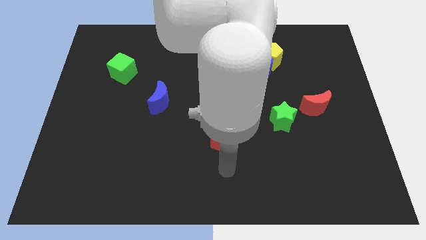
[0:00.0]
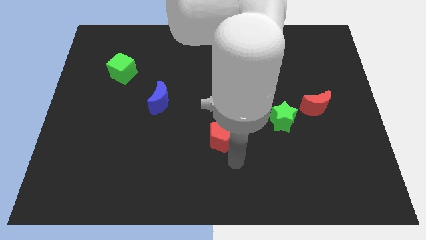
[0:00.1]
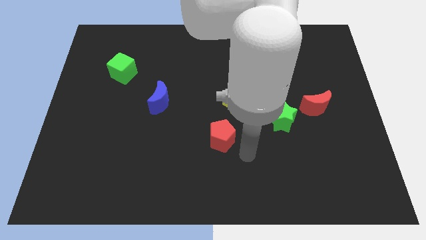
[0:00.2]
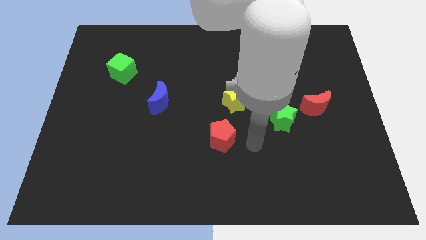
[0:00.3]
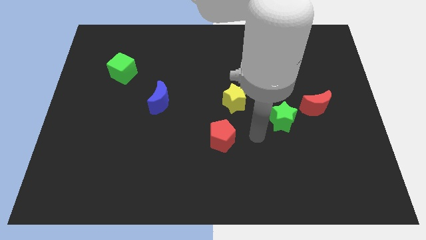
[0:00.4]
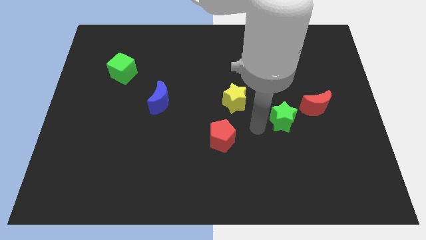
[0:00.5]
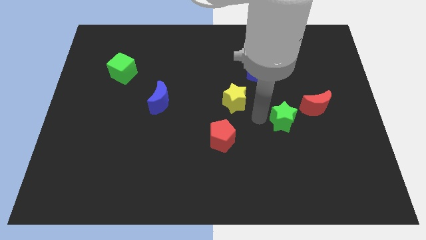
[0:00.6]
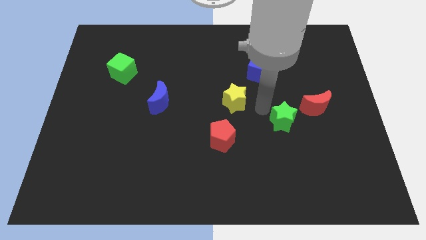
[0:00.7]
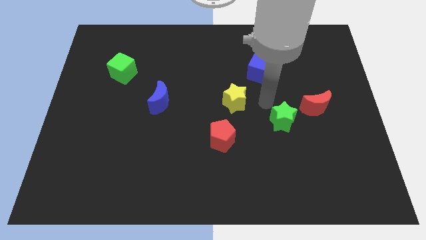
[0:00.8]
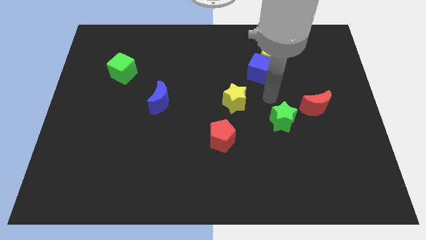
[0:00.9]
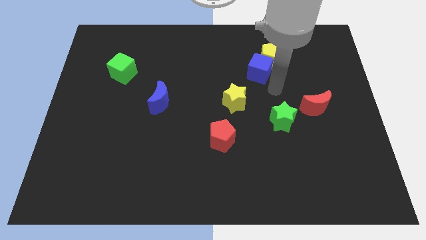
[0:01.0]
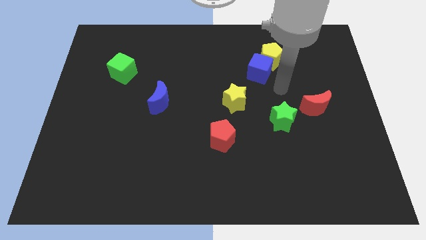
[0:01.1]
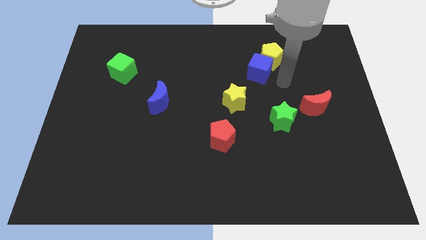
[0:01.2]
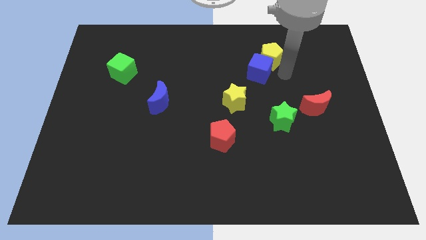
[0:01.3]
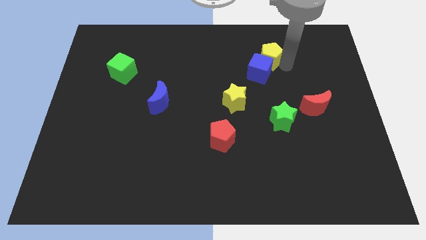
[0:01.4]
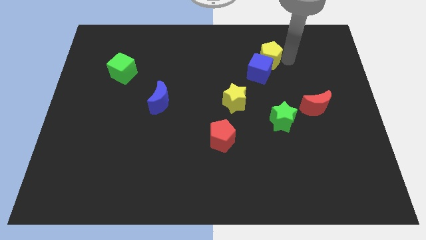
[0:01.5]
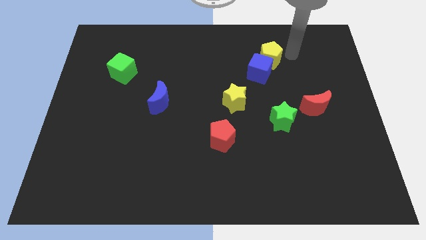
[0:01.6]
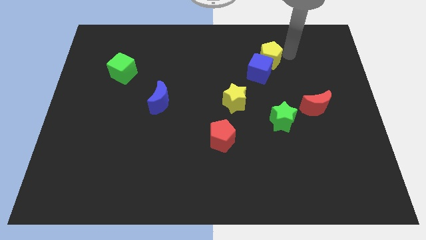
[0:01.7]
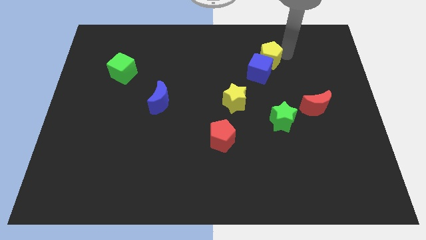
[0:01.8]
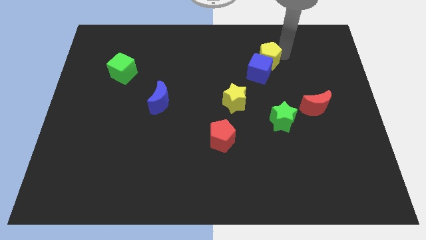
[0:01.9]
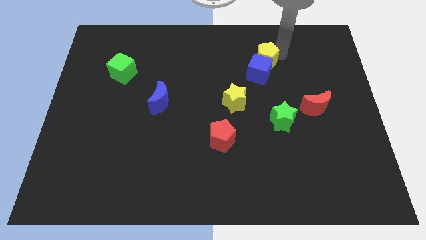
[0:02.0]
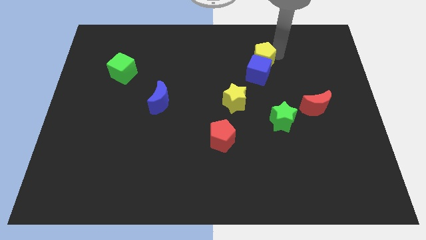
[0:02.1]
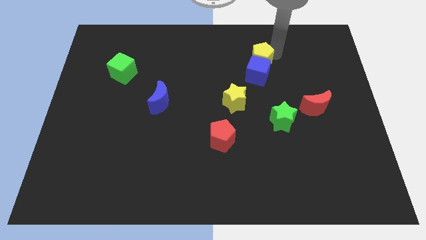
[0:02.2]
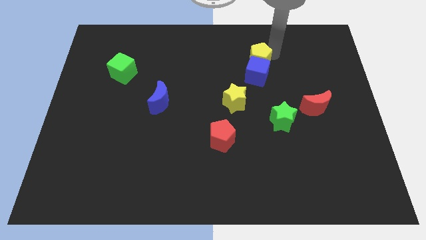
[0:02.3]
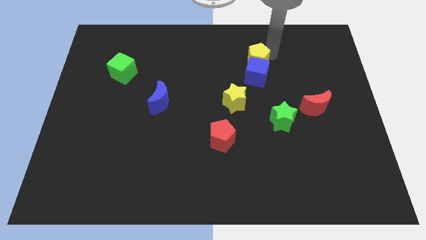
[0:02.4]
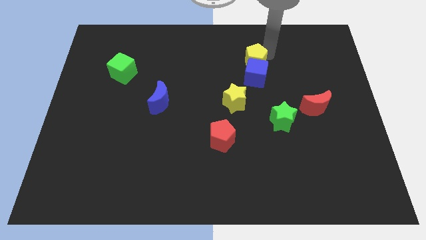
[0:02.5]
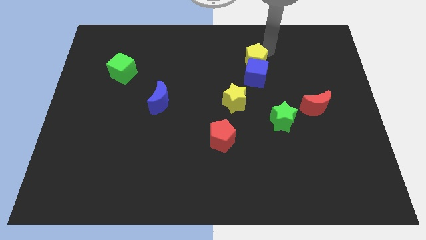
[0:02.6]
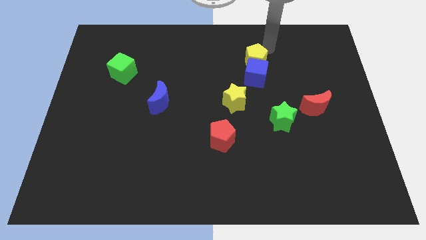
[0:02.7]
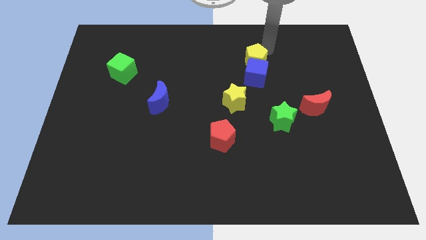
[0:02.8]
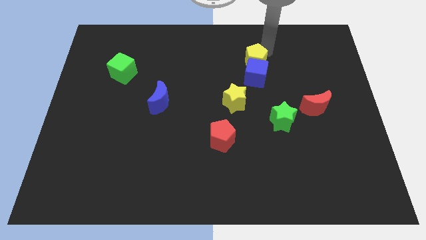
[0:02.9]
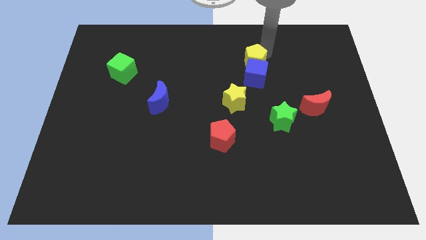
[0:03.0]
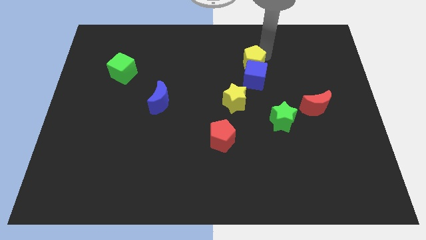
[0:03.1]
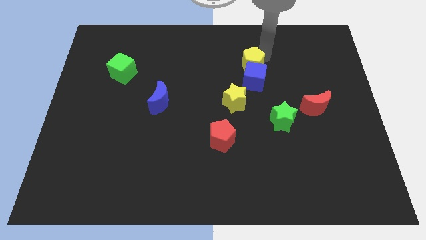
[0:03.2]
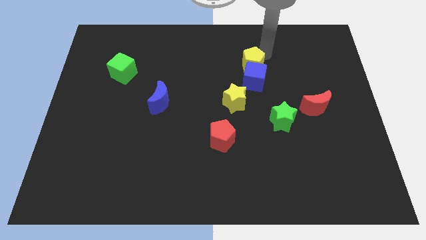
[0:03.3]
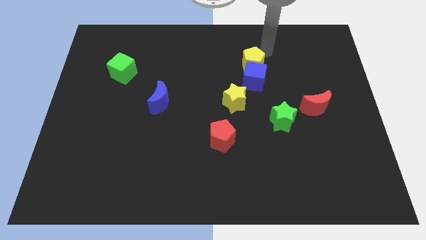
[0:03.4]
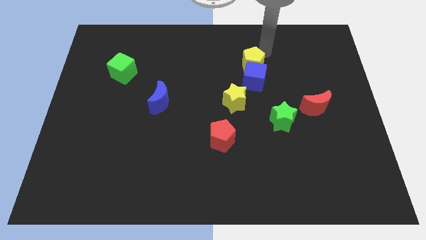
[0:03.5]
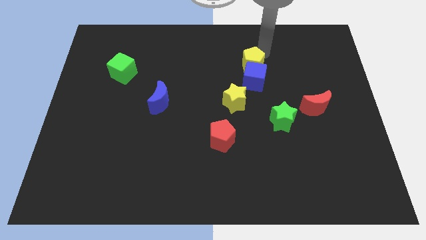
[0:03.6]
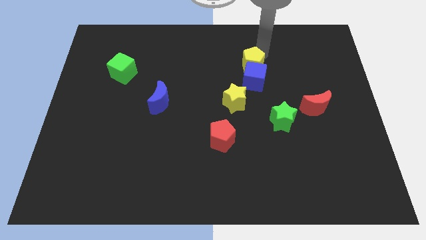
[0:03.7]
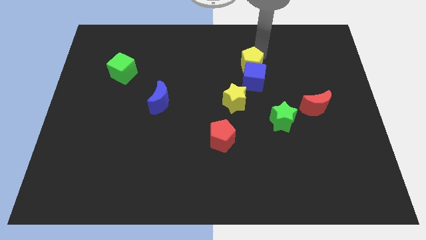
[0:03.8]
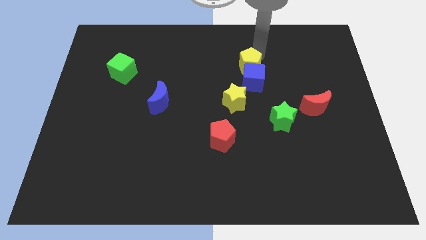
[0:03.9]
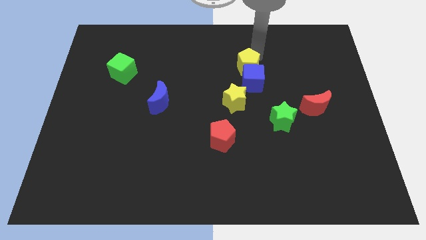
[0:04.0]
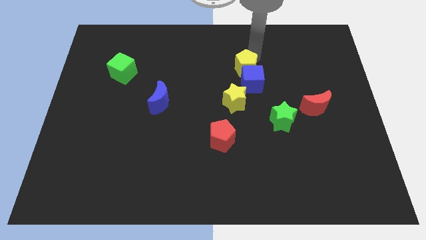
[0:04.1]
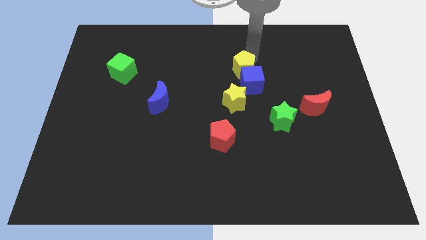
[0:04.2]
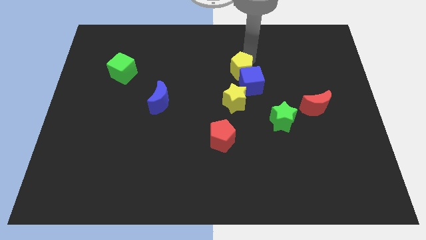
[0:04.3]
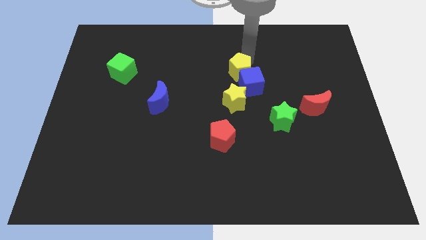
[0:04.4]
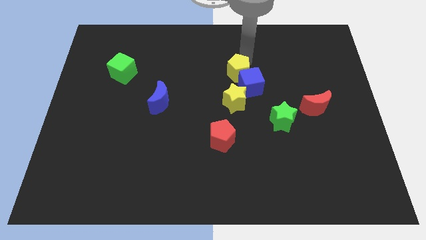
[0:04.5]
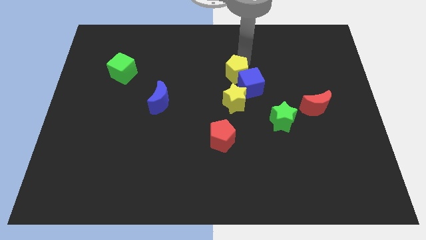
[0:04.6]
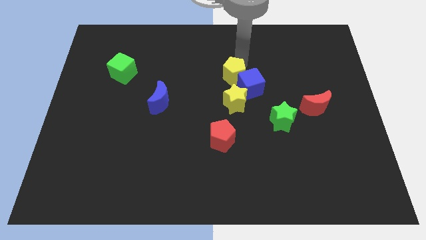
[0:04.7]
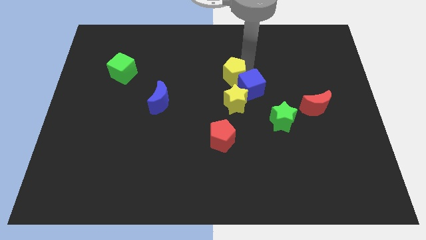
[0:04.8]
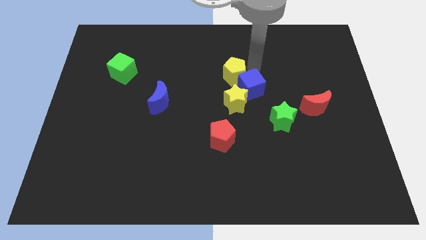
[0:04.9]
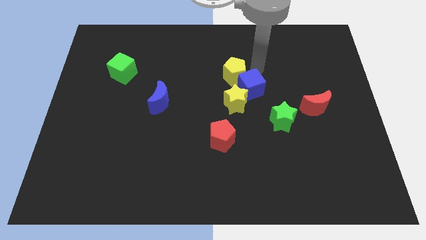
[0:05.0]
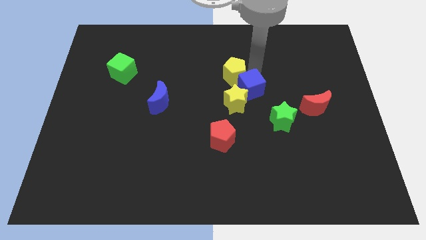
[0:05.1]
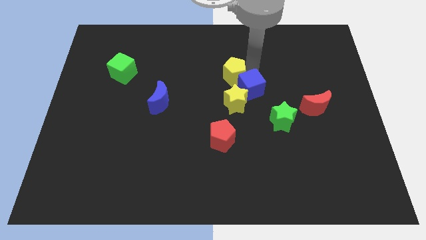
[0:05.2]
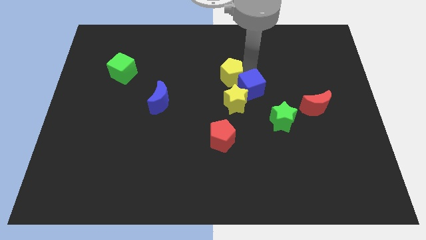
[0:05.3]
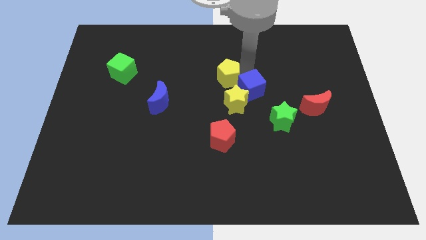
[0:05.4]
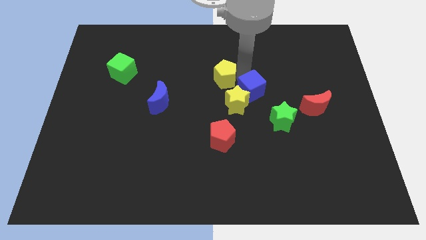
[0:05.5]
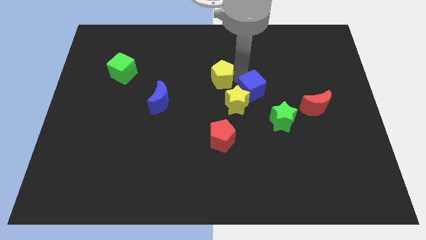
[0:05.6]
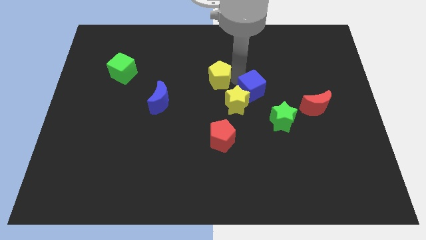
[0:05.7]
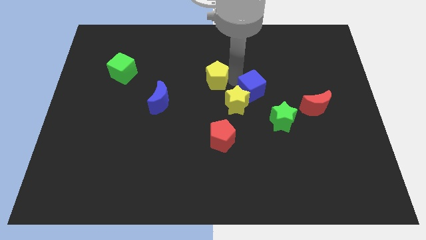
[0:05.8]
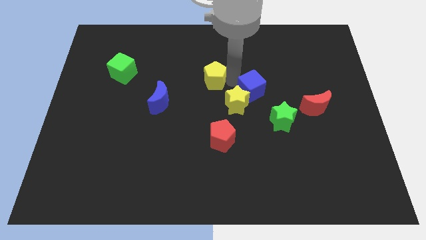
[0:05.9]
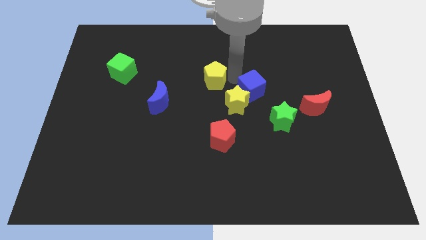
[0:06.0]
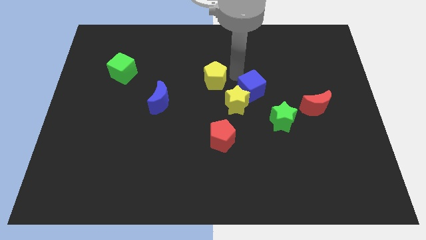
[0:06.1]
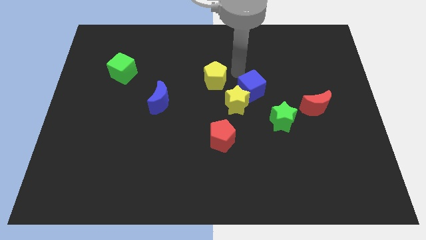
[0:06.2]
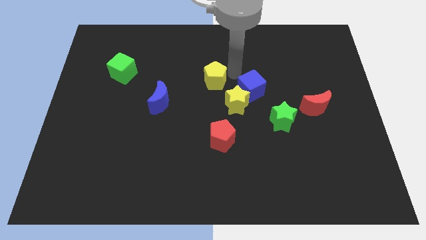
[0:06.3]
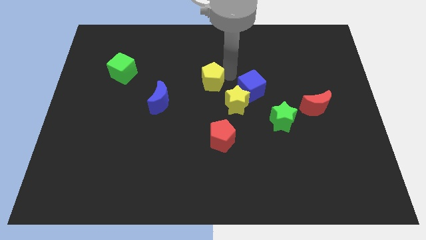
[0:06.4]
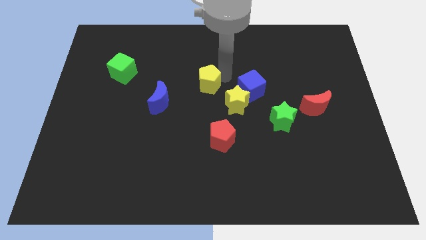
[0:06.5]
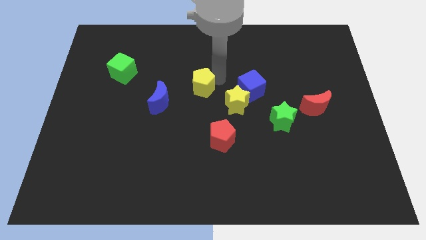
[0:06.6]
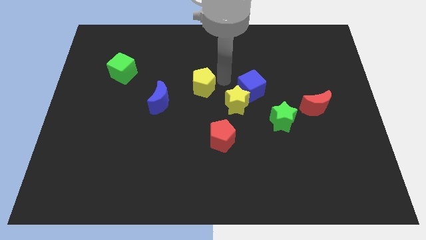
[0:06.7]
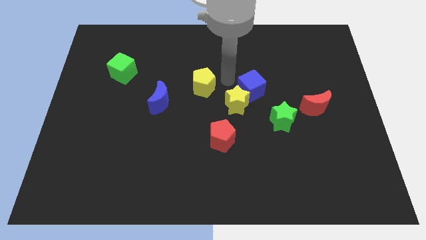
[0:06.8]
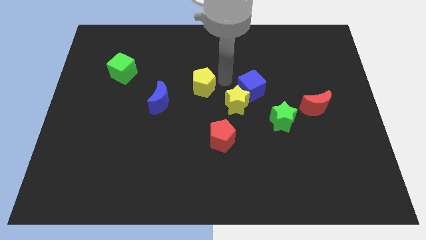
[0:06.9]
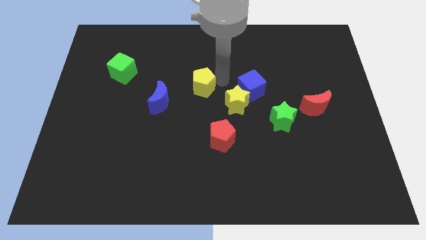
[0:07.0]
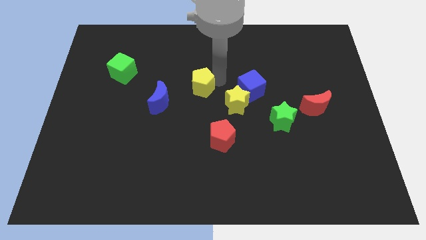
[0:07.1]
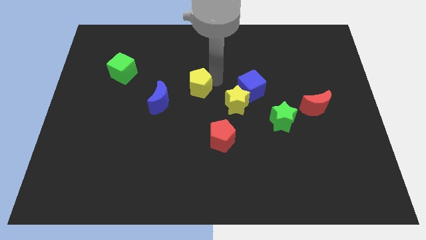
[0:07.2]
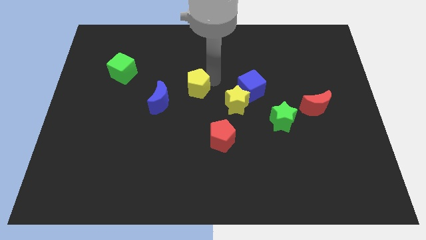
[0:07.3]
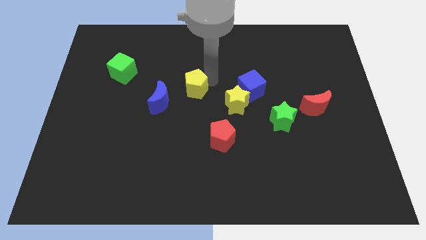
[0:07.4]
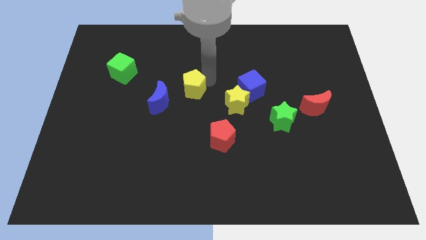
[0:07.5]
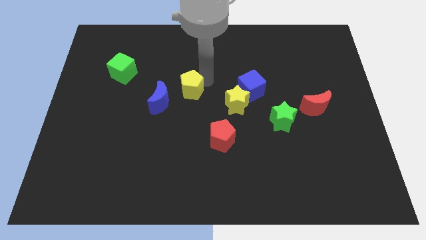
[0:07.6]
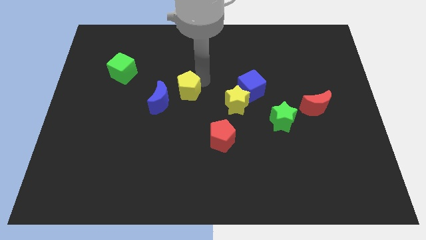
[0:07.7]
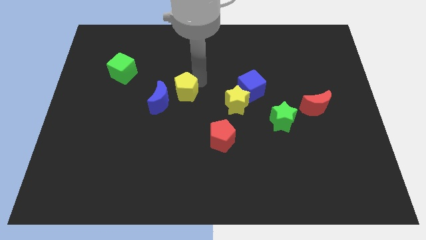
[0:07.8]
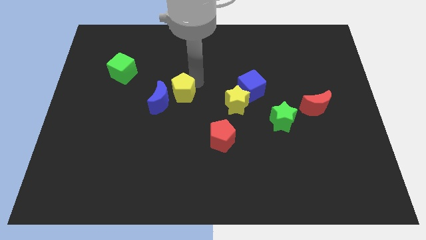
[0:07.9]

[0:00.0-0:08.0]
slide the yellow pentagon towards the blue moon
